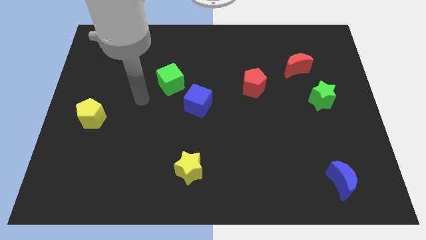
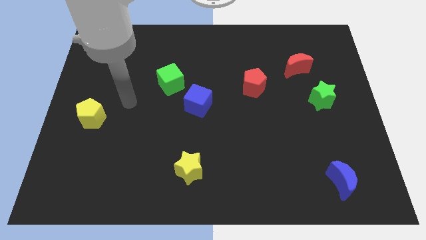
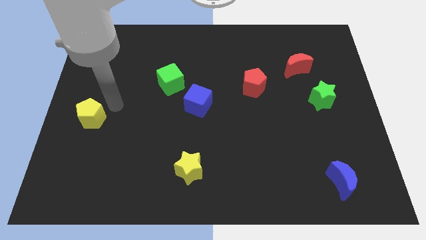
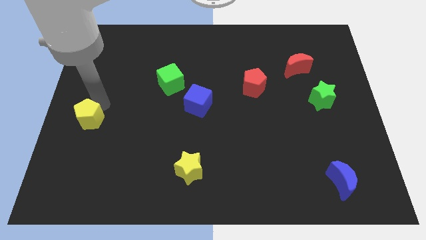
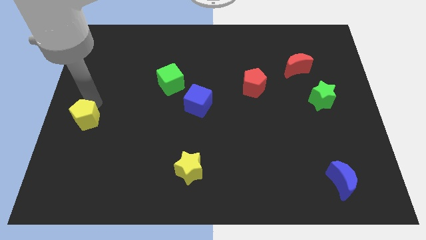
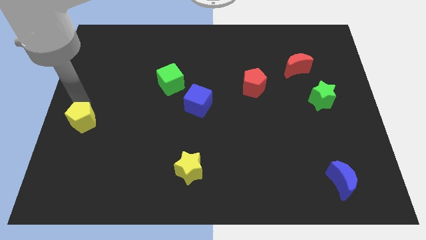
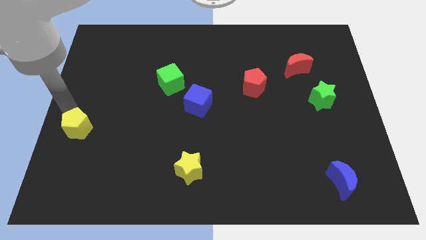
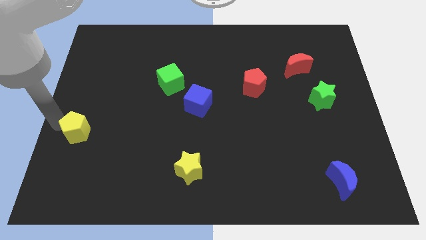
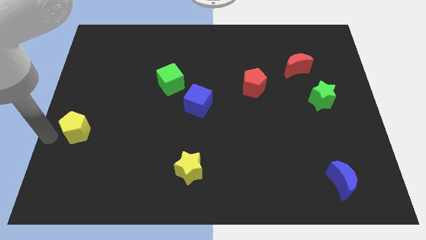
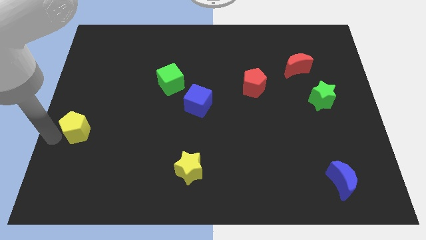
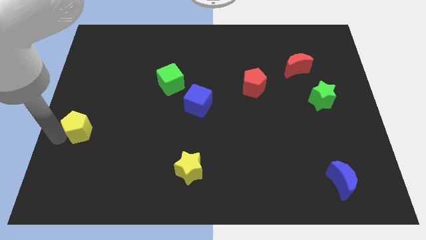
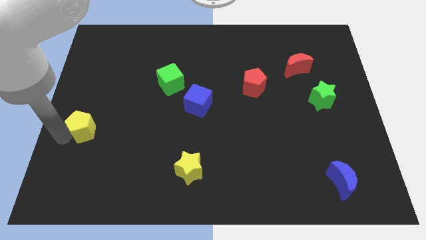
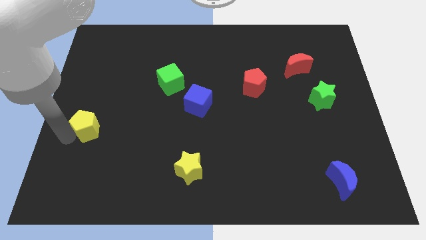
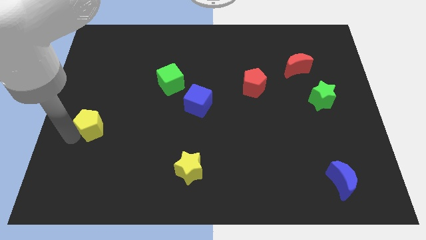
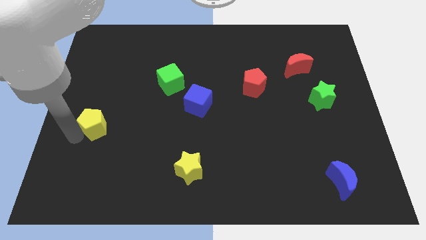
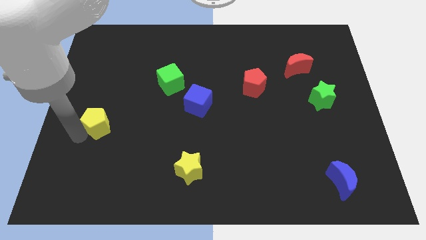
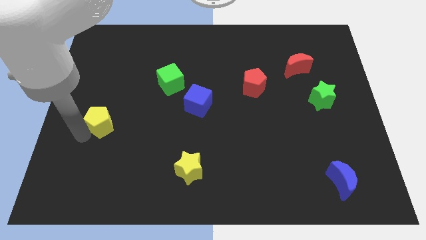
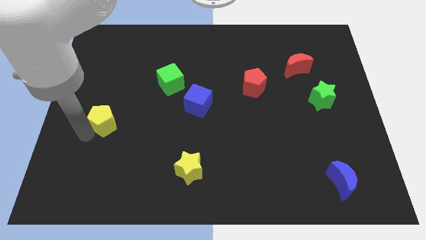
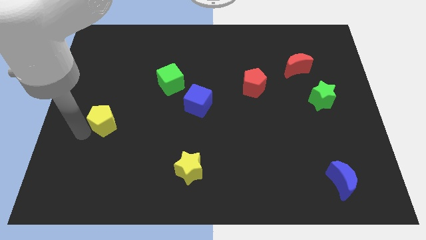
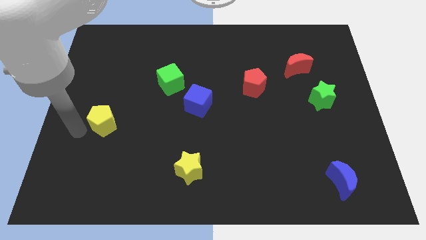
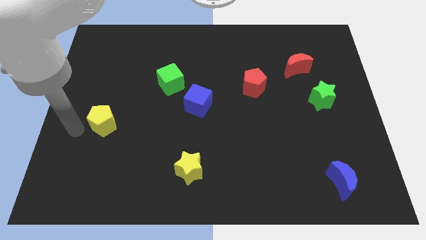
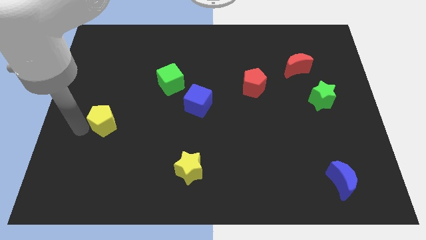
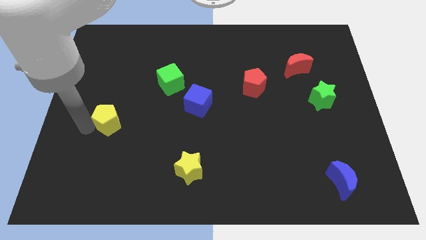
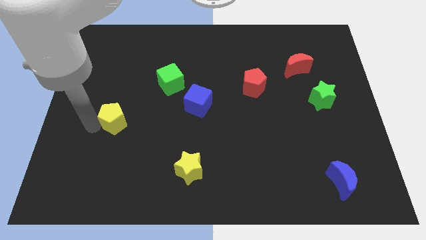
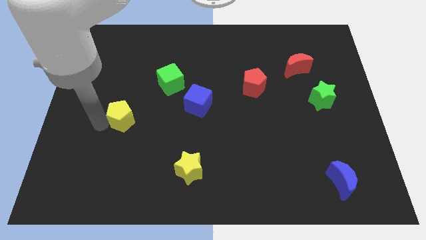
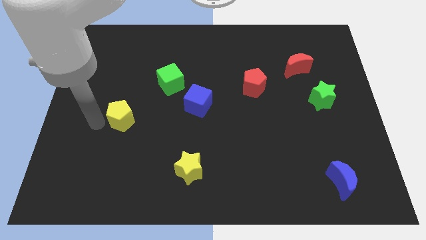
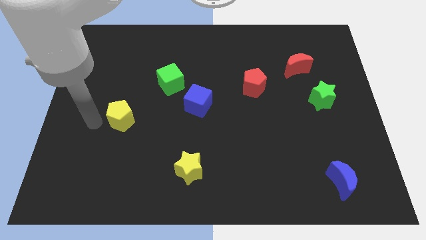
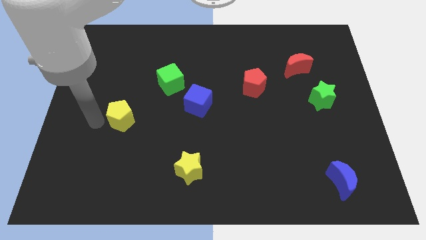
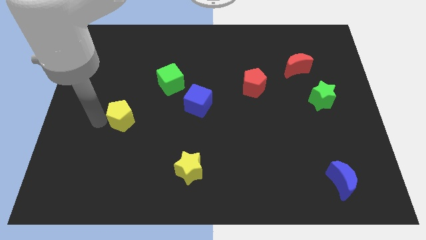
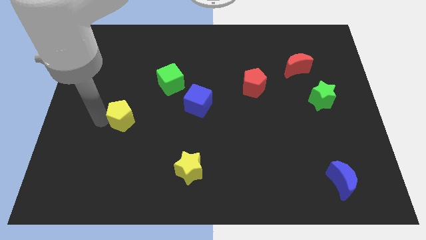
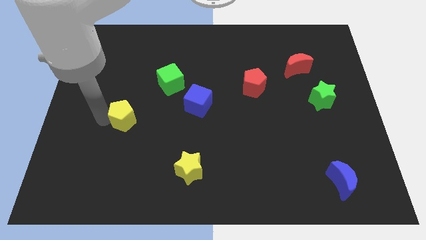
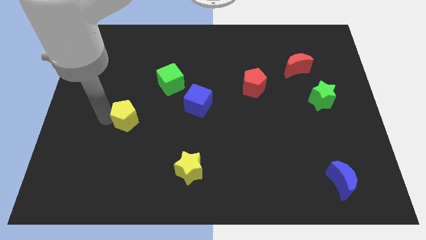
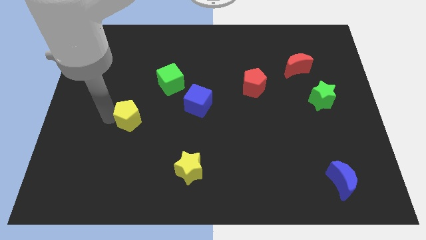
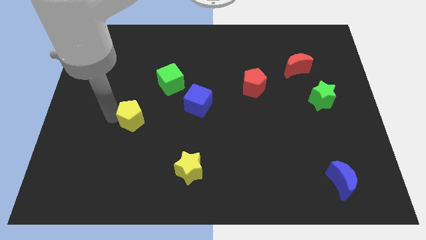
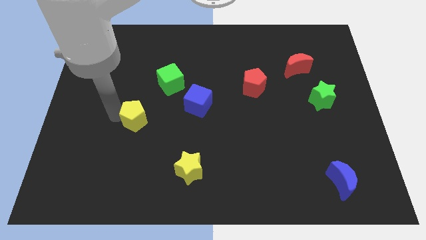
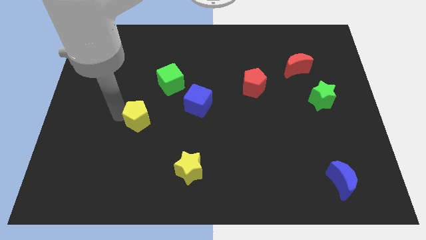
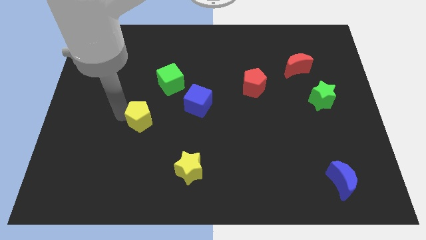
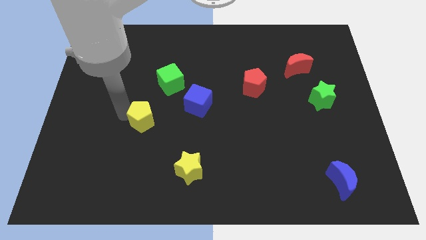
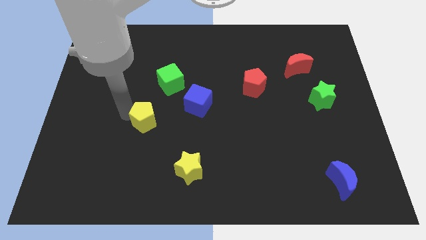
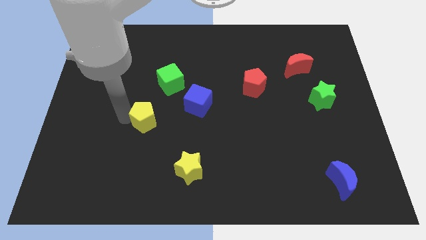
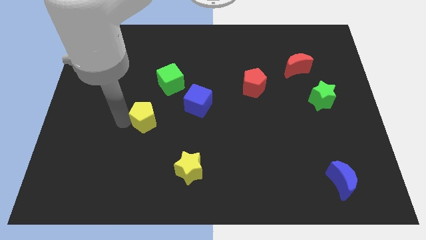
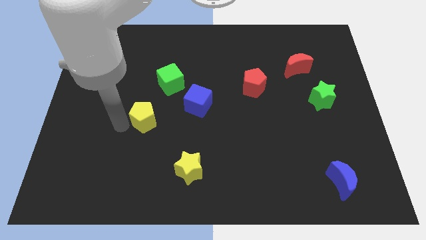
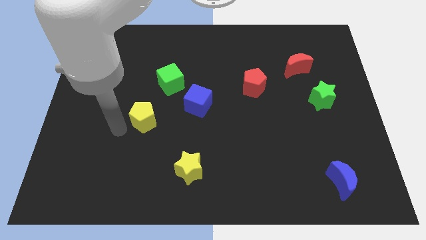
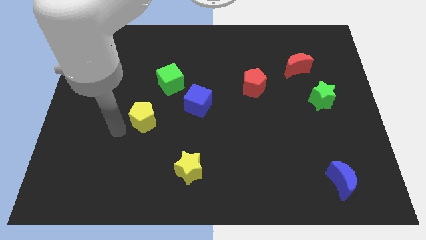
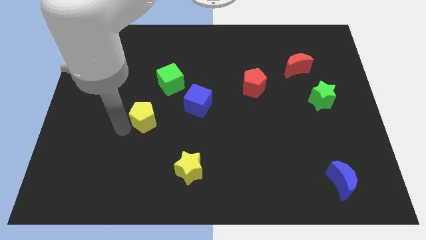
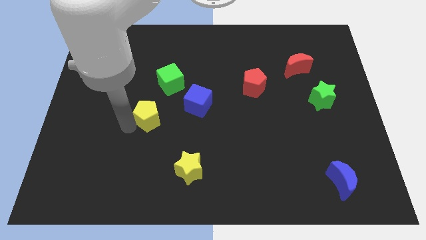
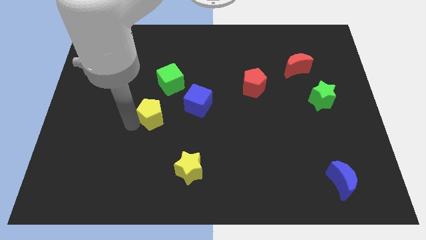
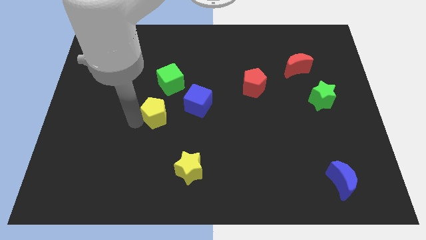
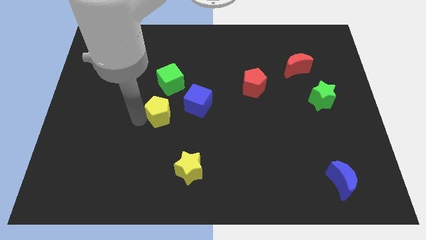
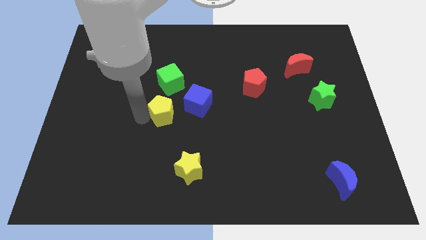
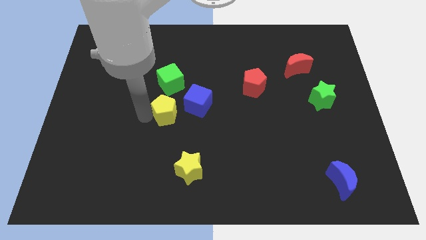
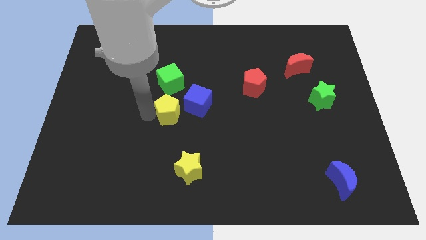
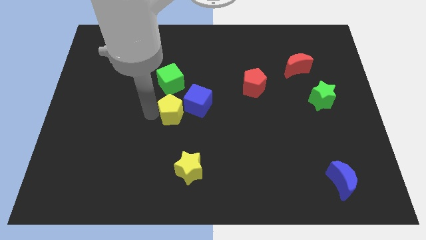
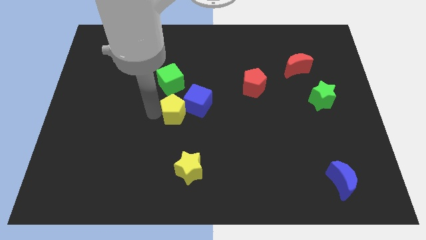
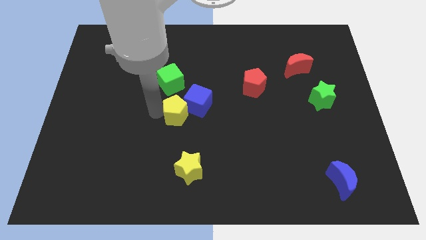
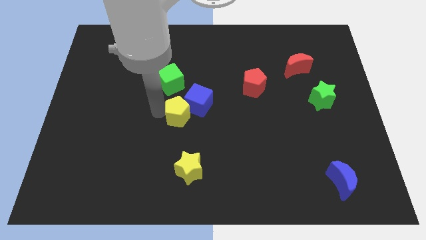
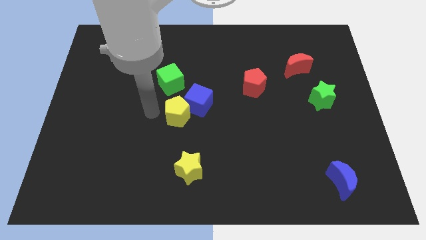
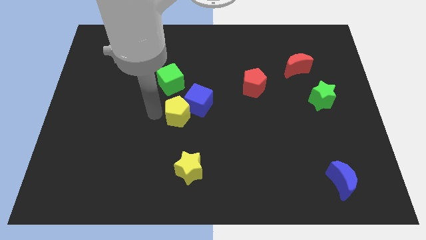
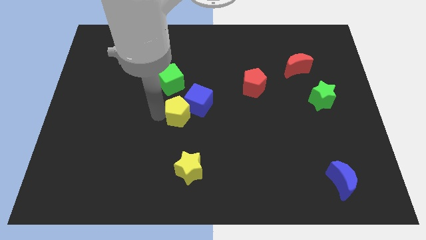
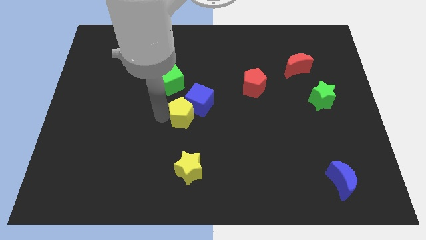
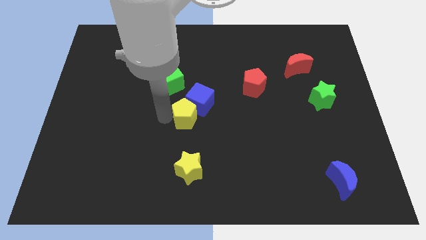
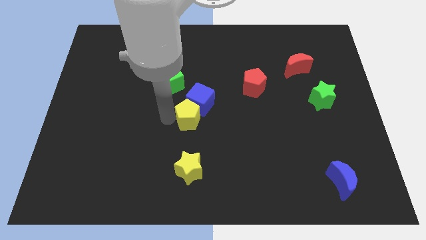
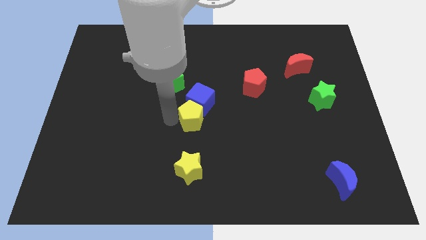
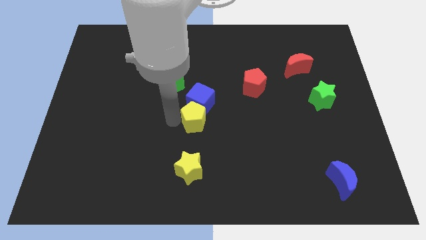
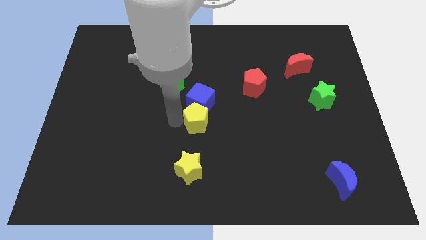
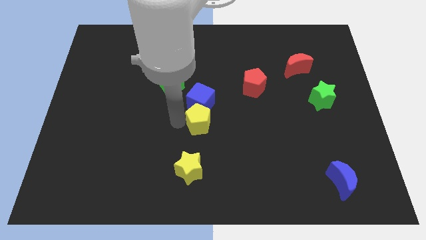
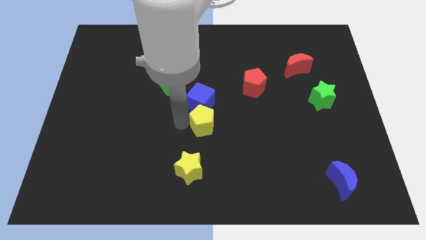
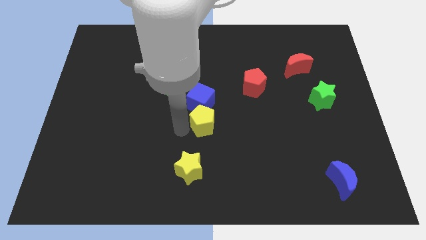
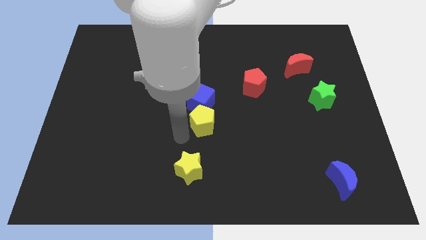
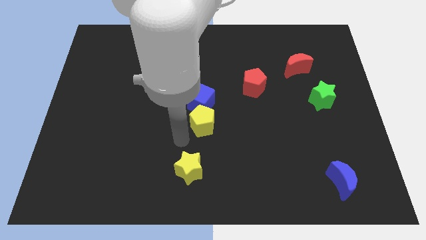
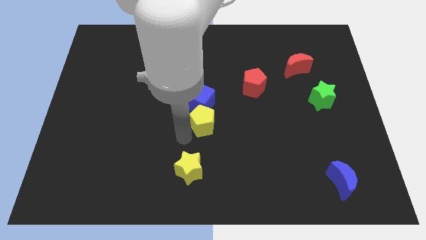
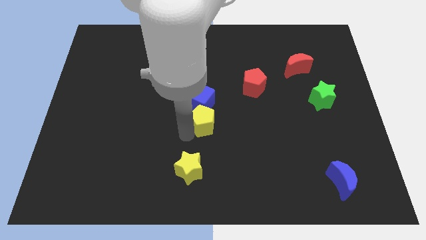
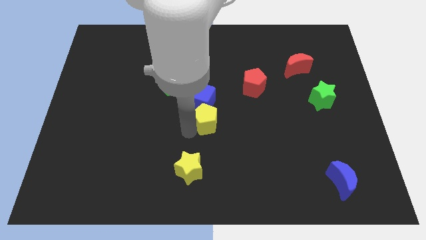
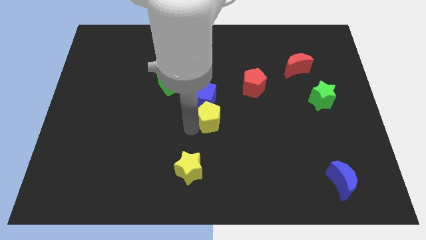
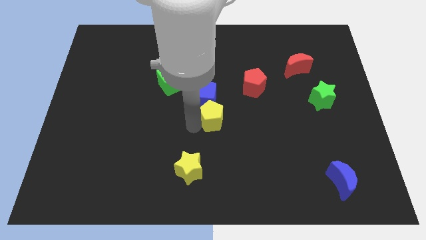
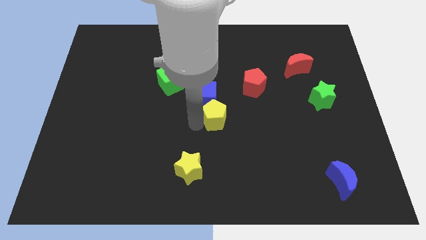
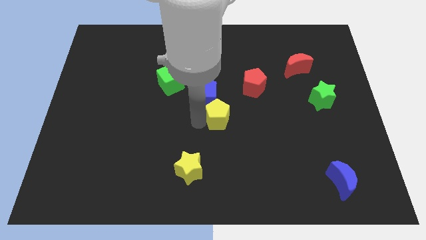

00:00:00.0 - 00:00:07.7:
put the yellow pentagon to the bottom left of the red pentagon
